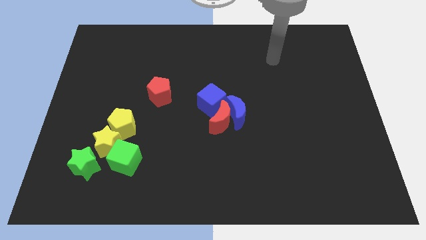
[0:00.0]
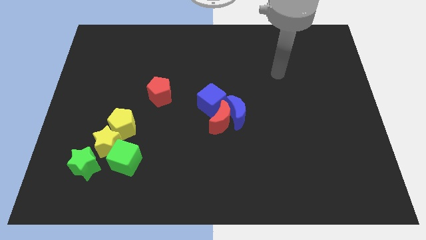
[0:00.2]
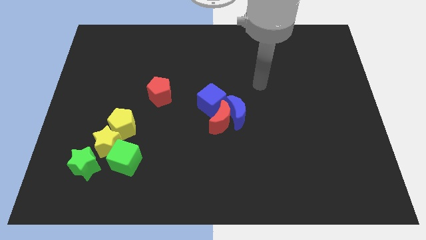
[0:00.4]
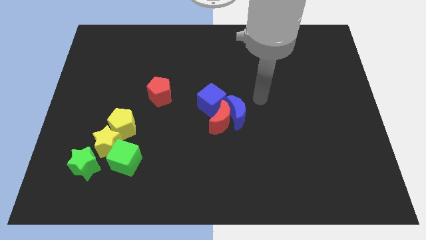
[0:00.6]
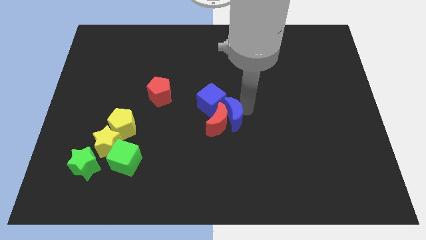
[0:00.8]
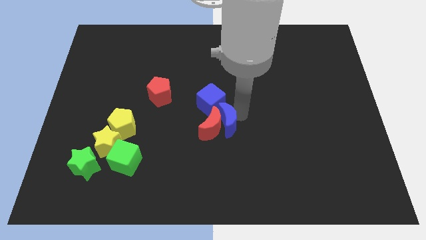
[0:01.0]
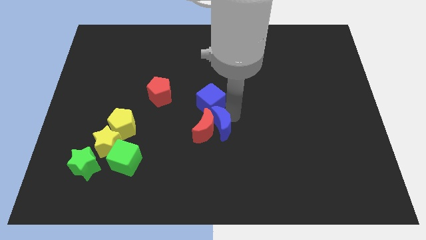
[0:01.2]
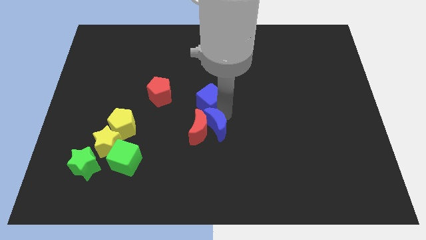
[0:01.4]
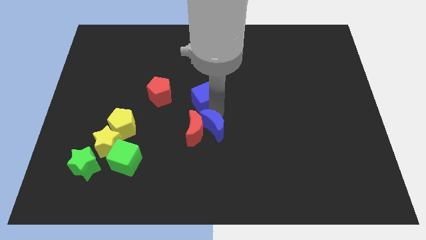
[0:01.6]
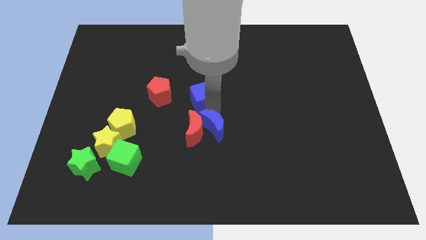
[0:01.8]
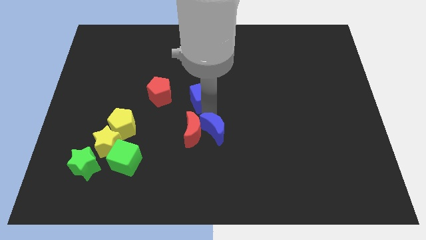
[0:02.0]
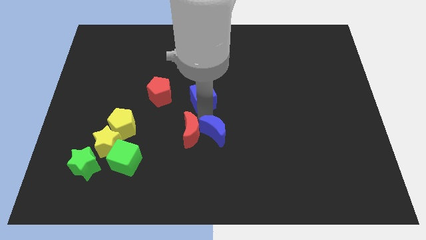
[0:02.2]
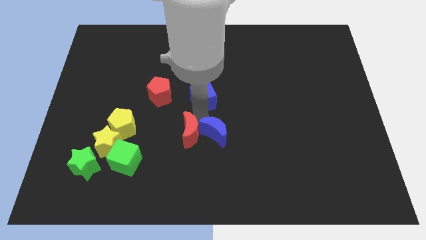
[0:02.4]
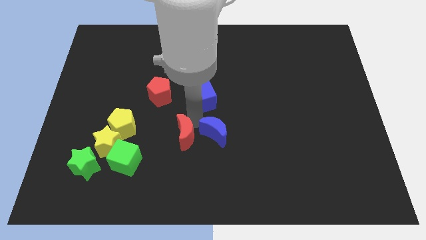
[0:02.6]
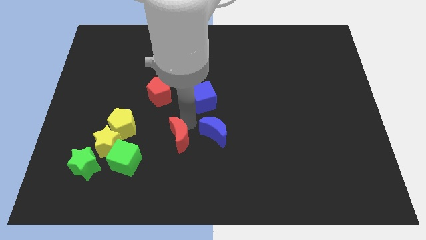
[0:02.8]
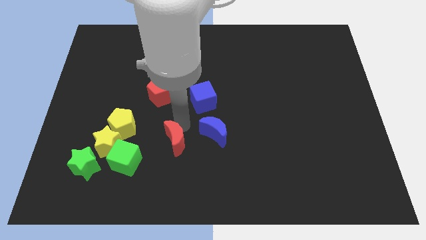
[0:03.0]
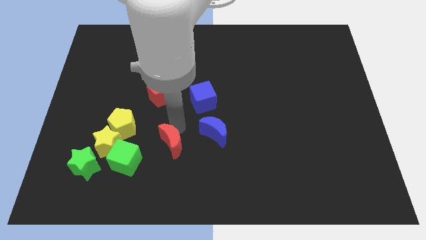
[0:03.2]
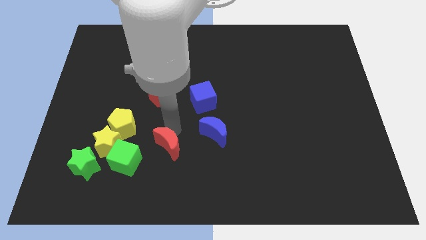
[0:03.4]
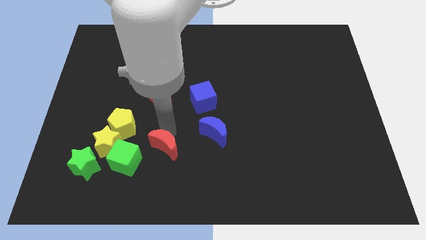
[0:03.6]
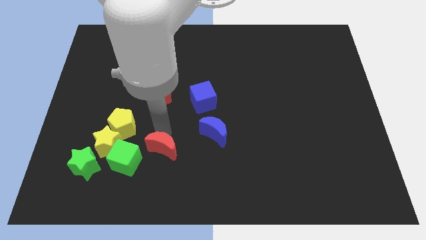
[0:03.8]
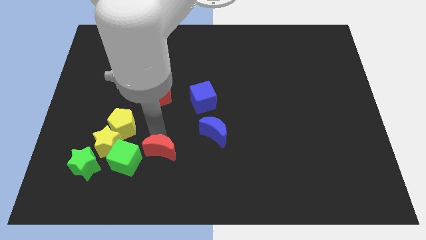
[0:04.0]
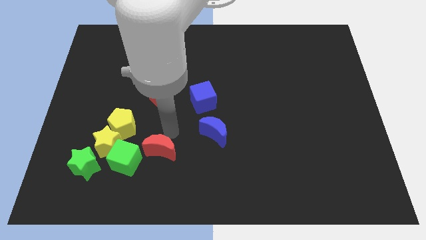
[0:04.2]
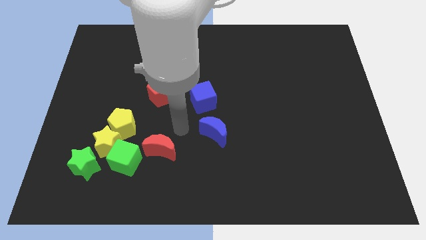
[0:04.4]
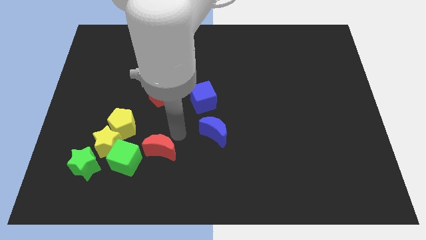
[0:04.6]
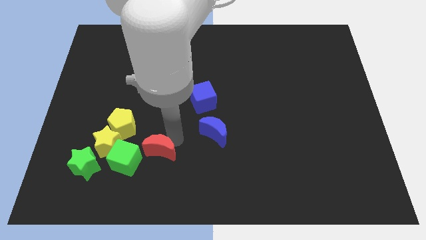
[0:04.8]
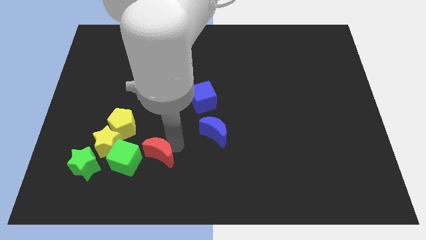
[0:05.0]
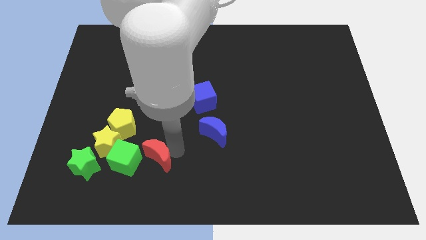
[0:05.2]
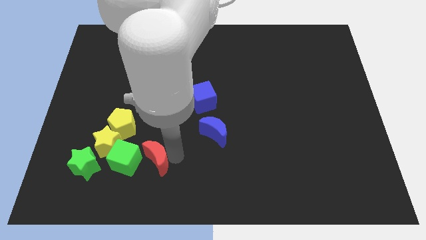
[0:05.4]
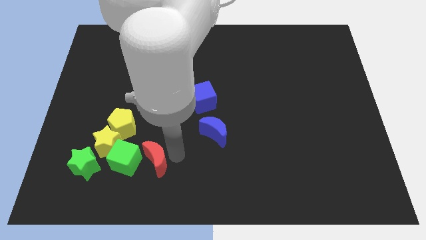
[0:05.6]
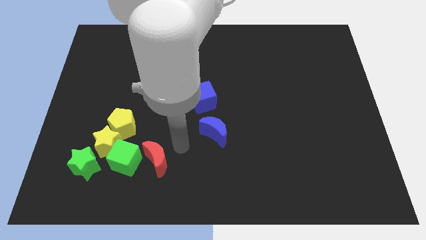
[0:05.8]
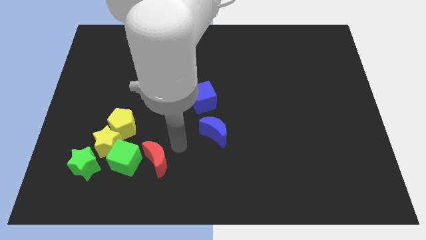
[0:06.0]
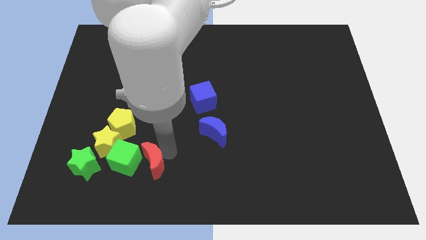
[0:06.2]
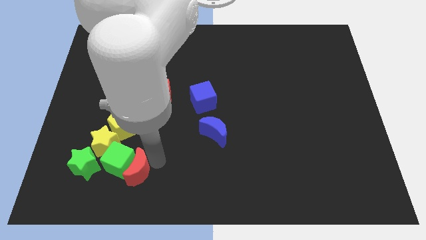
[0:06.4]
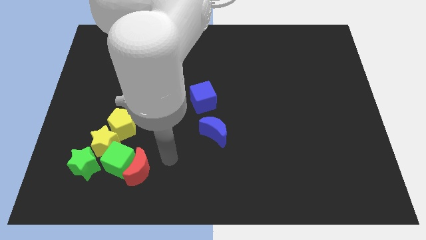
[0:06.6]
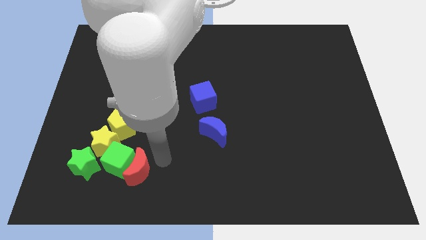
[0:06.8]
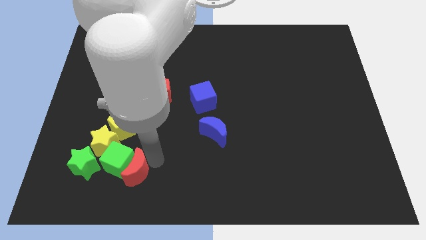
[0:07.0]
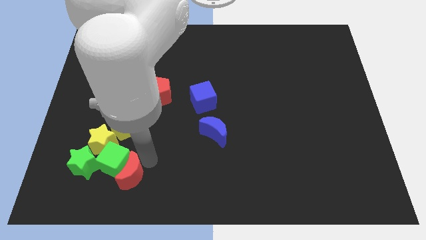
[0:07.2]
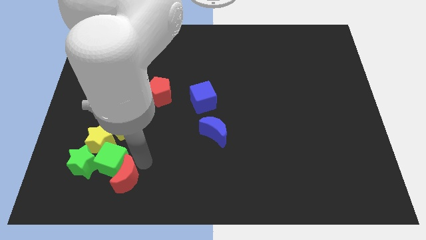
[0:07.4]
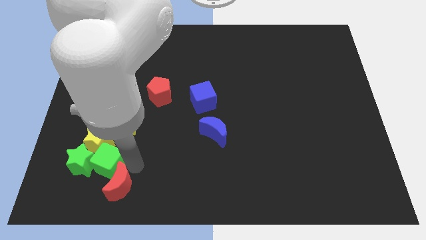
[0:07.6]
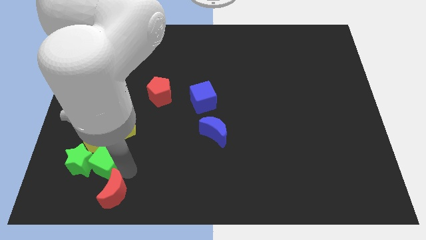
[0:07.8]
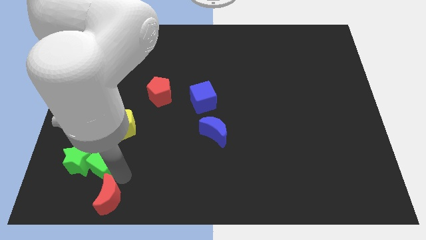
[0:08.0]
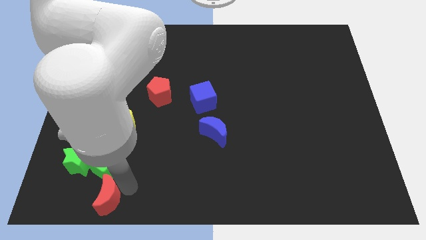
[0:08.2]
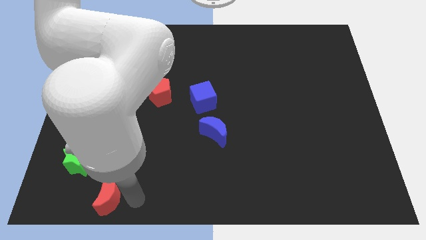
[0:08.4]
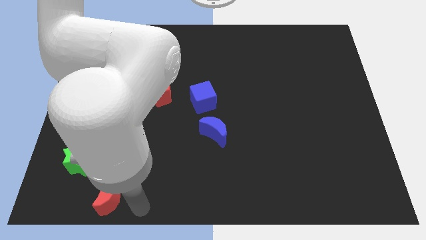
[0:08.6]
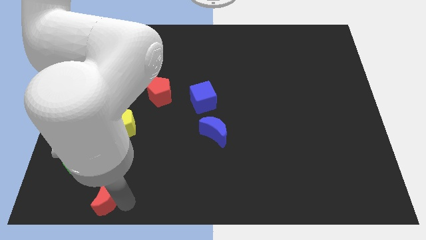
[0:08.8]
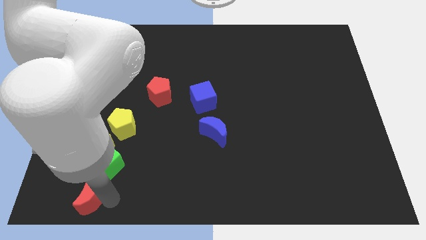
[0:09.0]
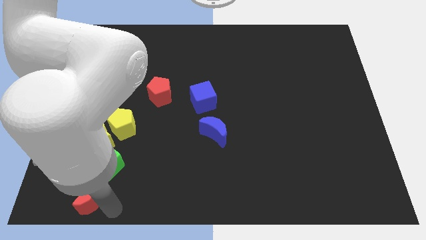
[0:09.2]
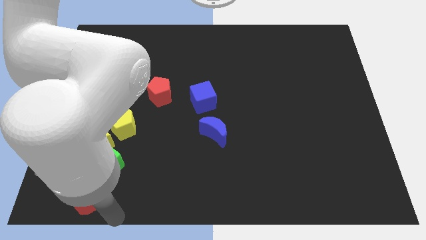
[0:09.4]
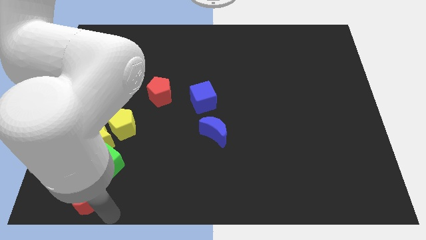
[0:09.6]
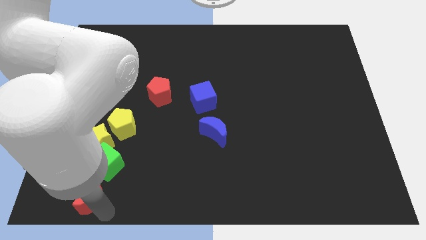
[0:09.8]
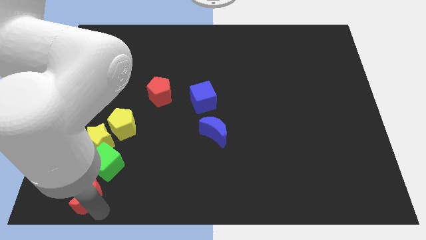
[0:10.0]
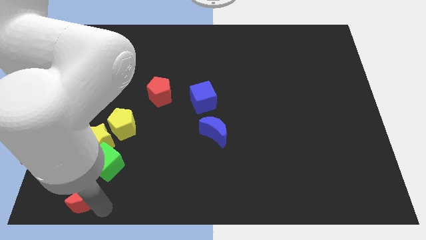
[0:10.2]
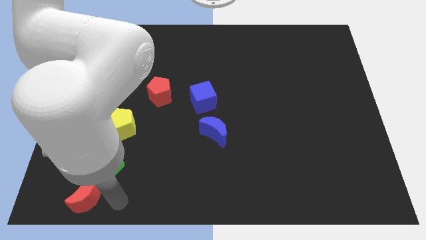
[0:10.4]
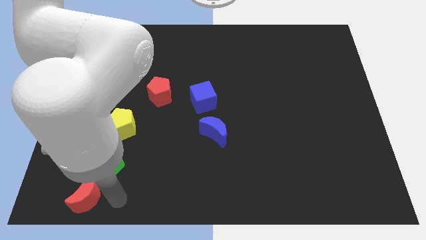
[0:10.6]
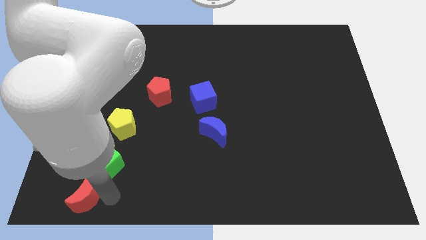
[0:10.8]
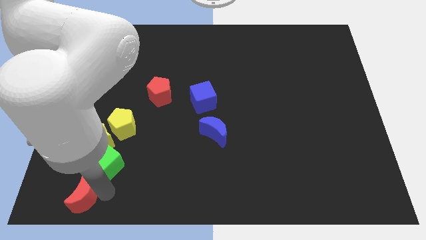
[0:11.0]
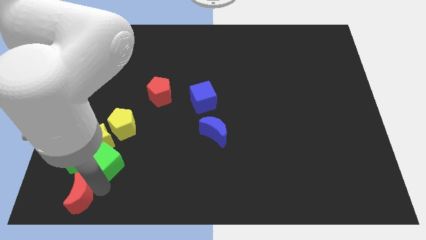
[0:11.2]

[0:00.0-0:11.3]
put the red moon to the bottom left of the board
